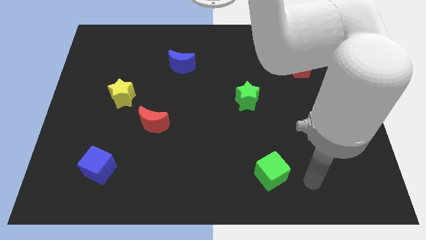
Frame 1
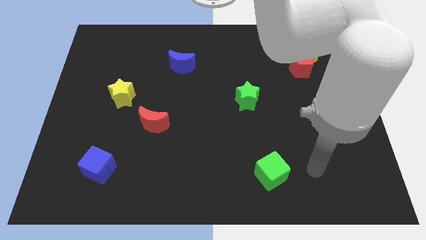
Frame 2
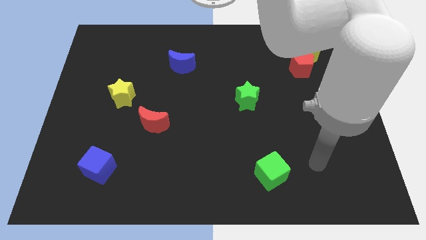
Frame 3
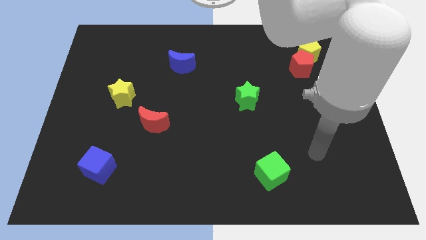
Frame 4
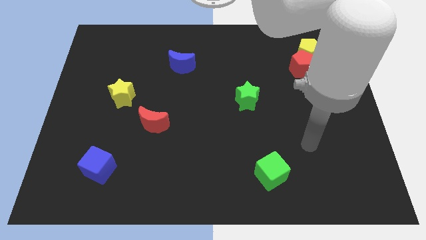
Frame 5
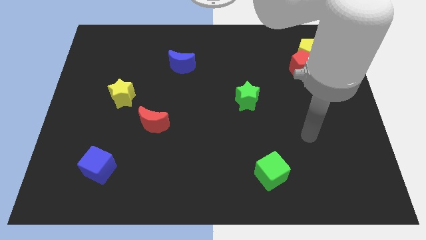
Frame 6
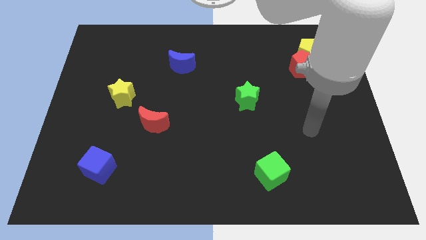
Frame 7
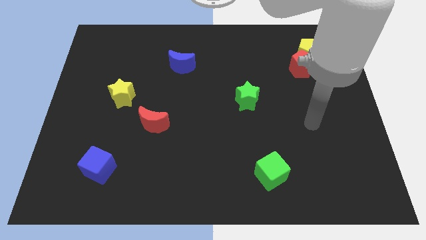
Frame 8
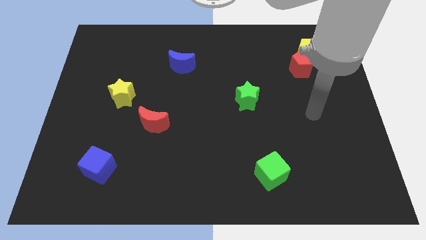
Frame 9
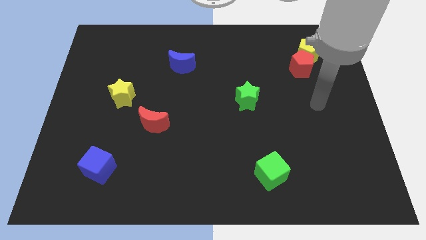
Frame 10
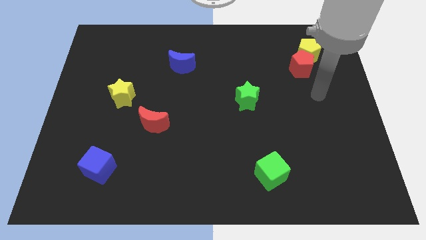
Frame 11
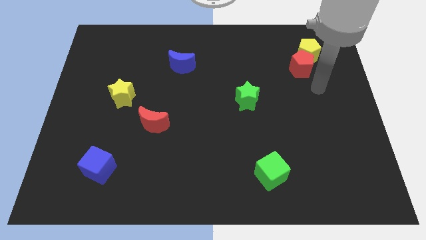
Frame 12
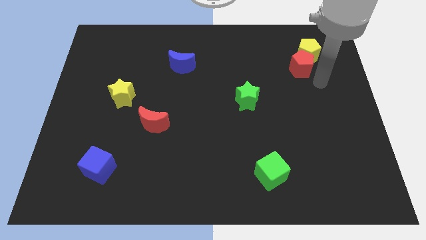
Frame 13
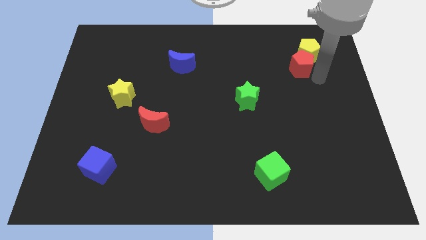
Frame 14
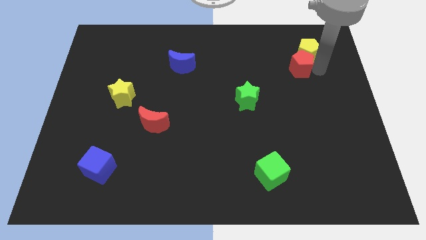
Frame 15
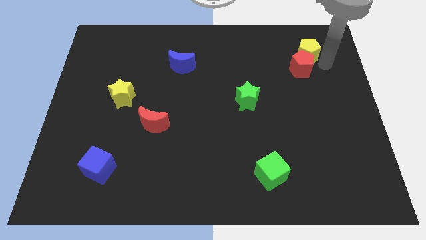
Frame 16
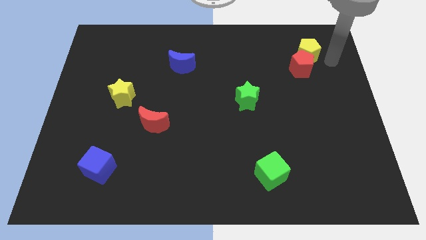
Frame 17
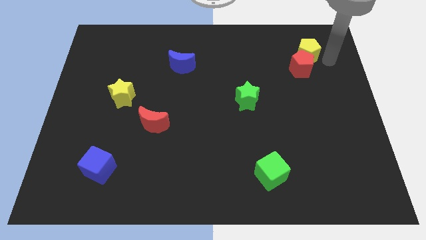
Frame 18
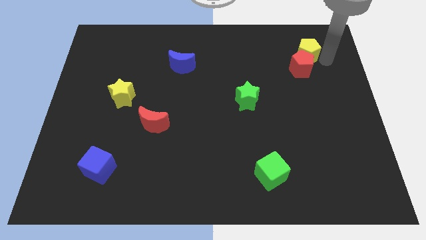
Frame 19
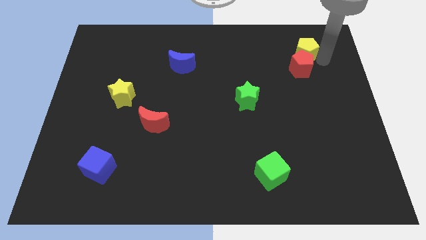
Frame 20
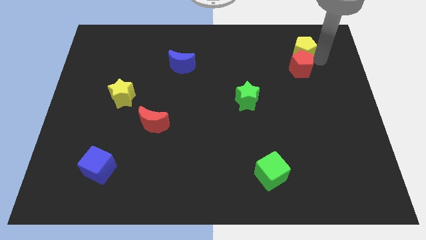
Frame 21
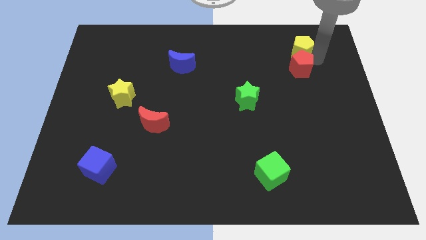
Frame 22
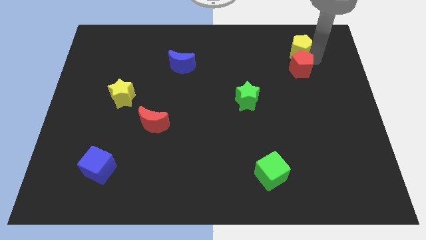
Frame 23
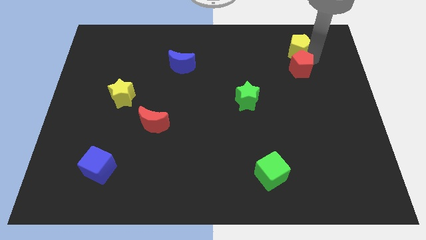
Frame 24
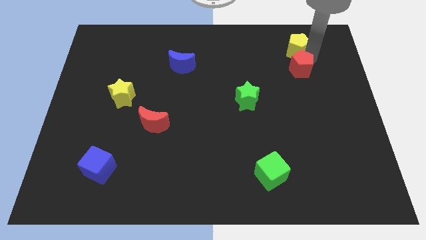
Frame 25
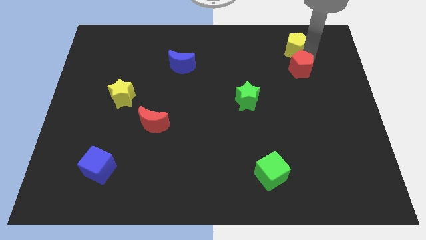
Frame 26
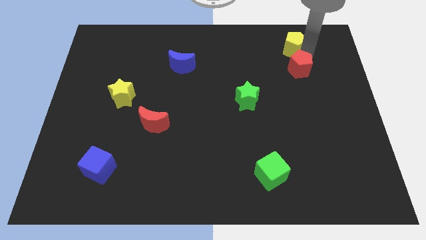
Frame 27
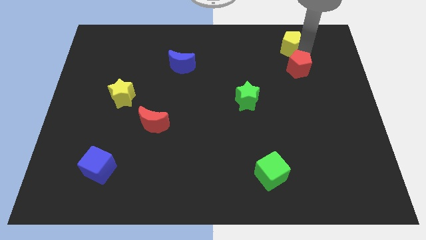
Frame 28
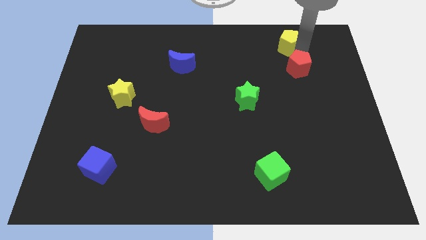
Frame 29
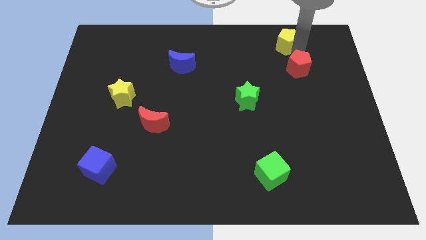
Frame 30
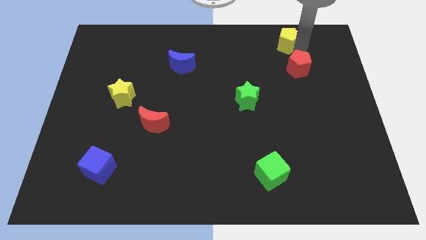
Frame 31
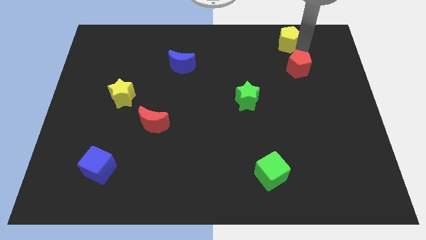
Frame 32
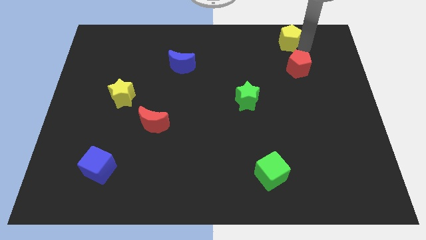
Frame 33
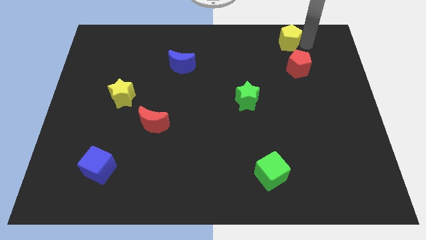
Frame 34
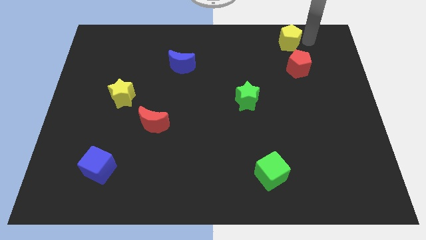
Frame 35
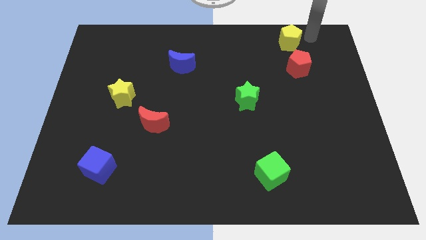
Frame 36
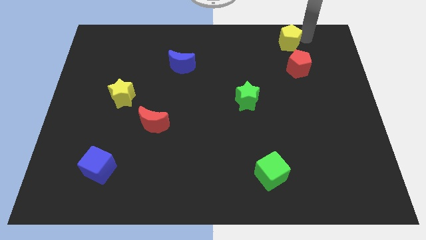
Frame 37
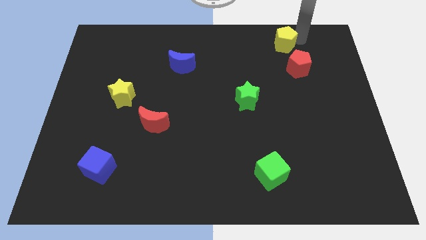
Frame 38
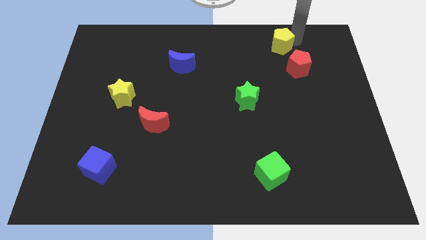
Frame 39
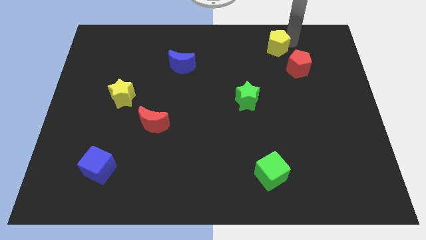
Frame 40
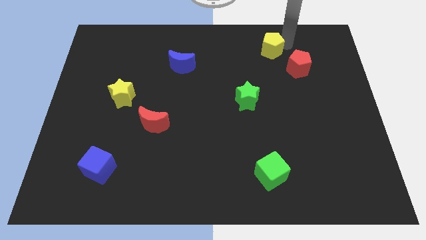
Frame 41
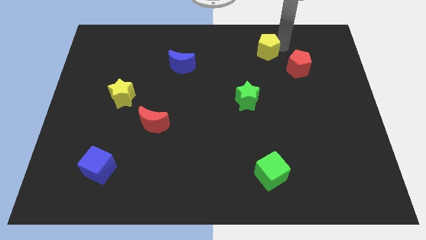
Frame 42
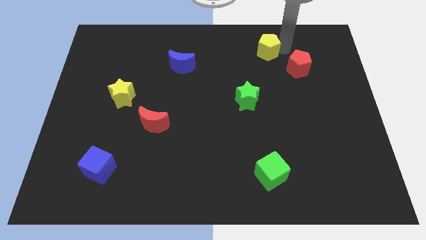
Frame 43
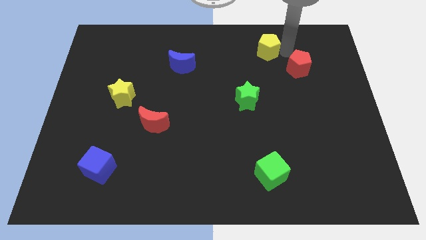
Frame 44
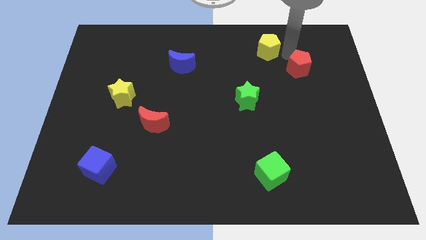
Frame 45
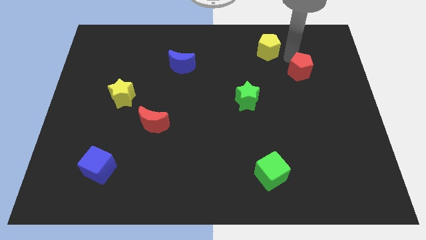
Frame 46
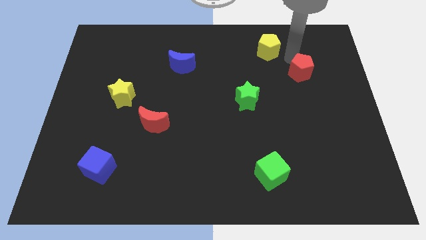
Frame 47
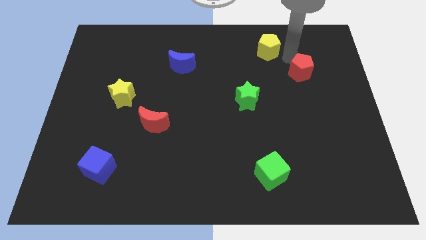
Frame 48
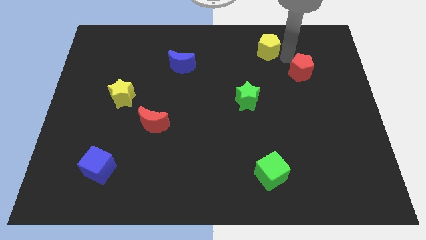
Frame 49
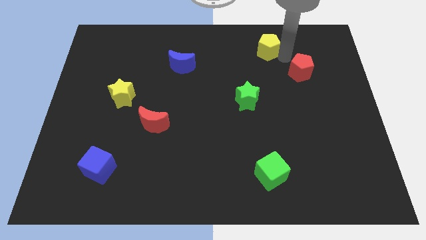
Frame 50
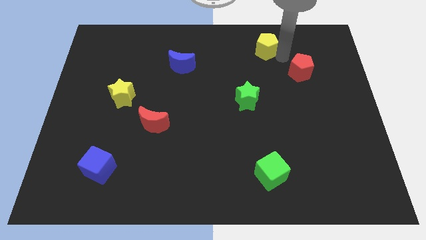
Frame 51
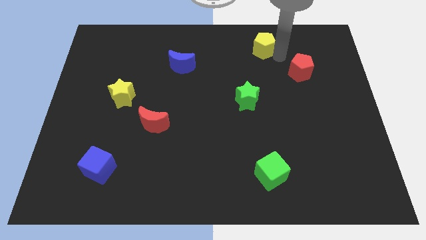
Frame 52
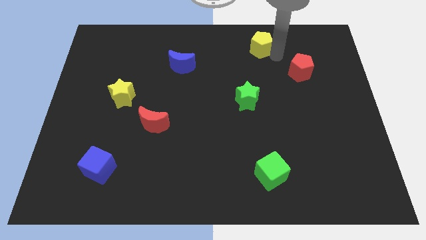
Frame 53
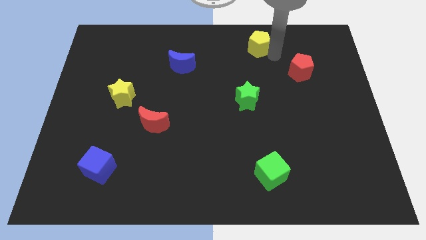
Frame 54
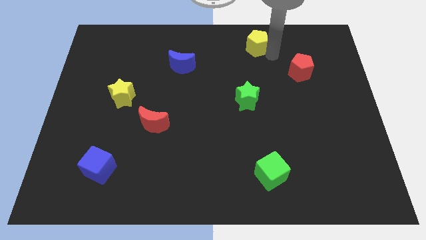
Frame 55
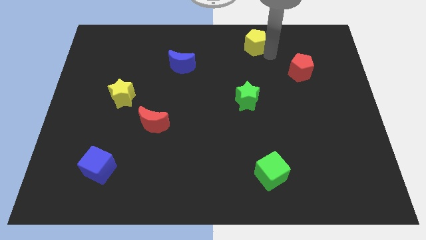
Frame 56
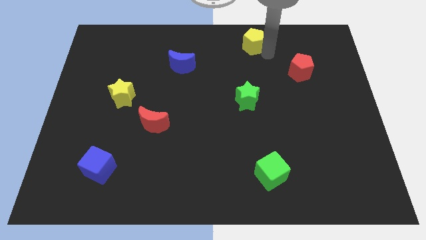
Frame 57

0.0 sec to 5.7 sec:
push the yellow pentagon to the top side
